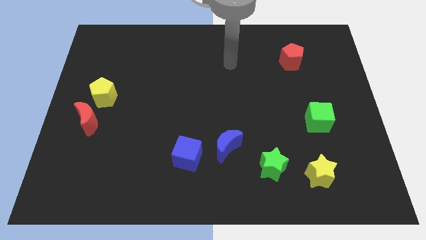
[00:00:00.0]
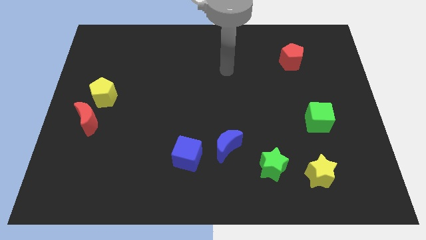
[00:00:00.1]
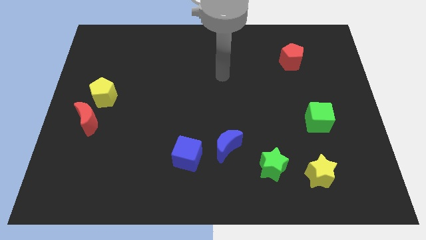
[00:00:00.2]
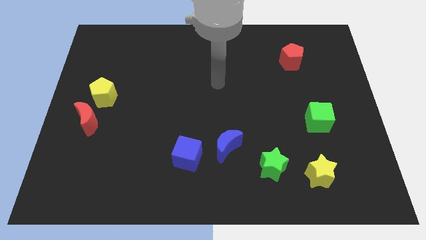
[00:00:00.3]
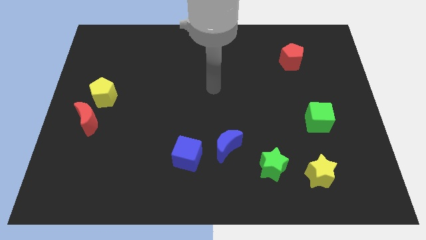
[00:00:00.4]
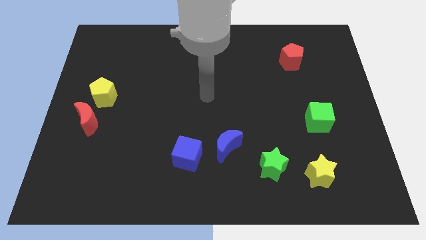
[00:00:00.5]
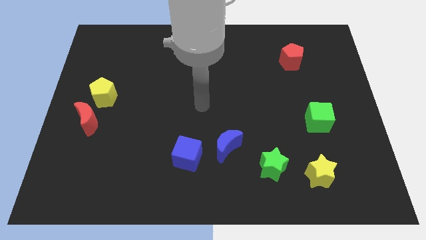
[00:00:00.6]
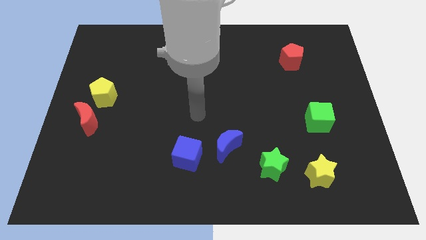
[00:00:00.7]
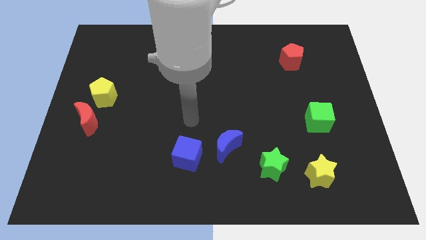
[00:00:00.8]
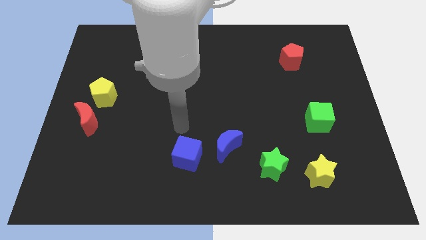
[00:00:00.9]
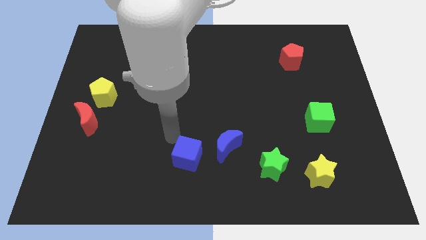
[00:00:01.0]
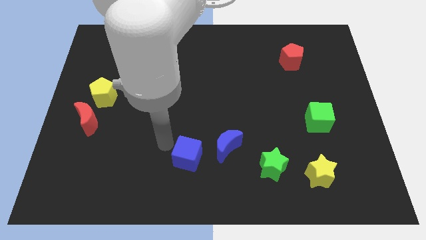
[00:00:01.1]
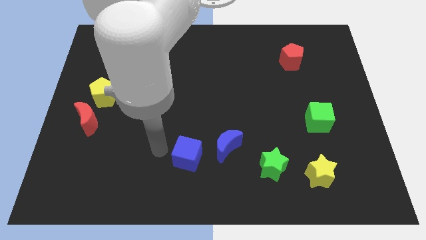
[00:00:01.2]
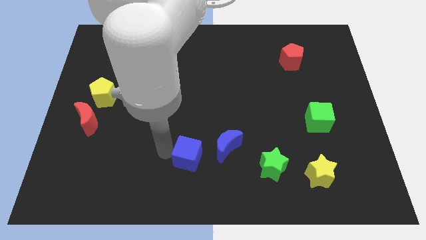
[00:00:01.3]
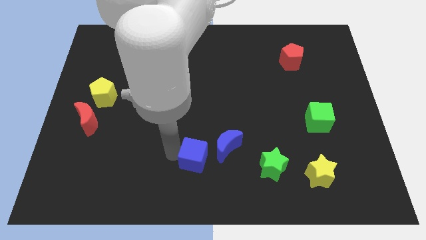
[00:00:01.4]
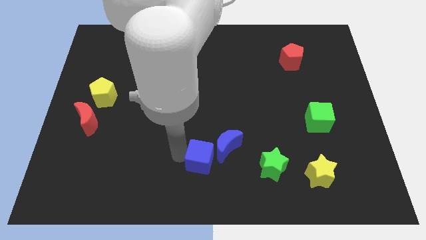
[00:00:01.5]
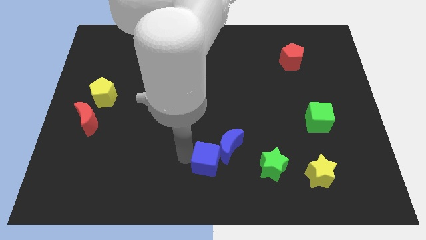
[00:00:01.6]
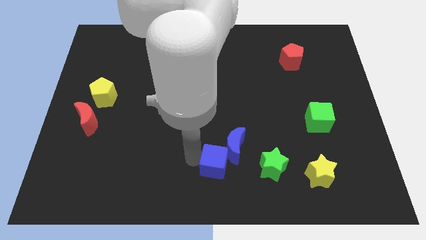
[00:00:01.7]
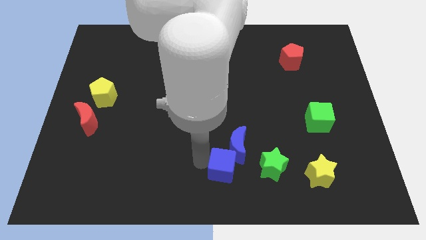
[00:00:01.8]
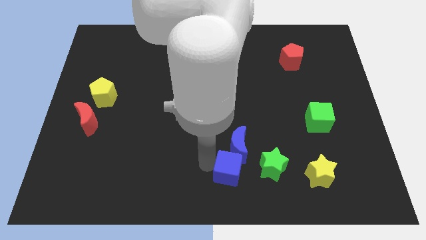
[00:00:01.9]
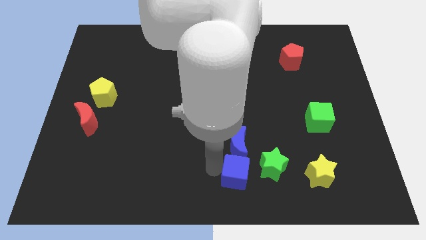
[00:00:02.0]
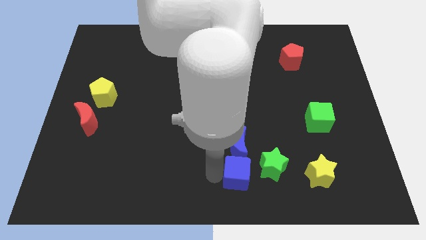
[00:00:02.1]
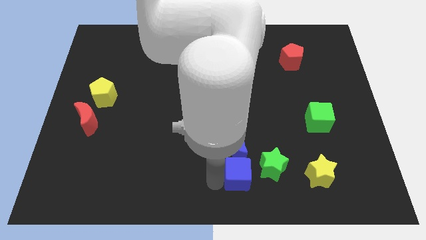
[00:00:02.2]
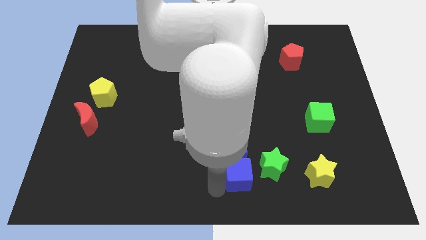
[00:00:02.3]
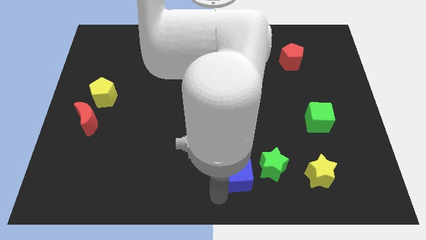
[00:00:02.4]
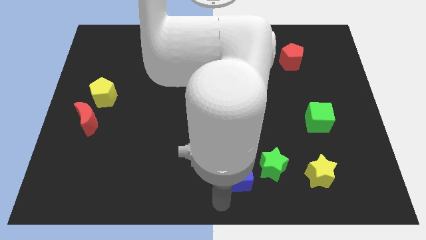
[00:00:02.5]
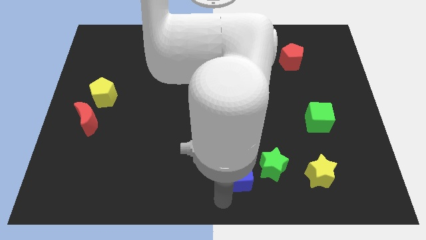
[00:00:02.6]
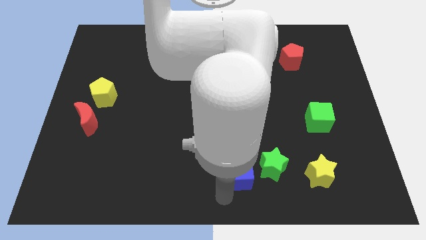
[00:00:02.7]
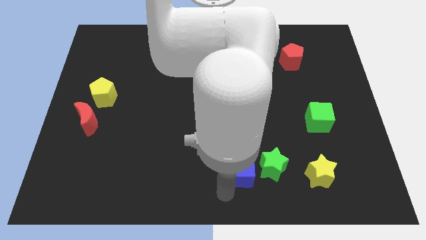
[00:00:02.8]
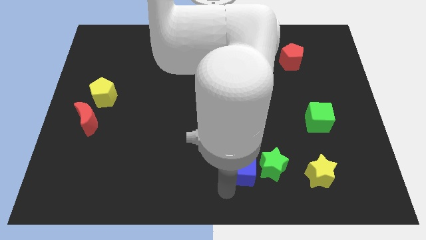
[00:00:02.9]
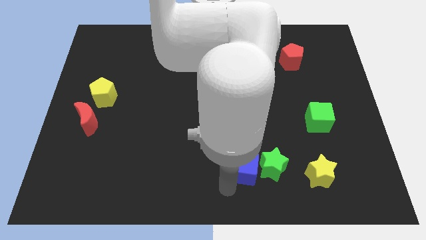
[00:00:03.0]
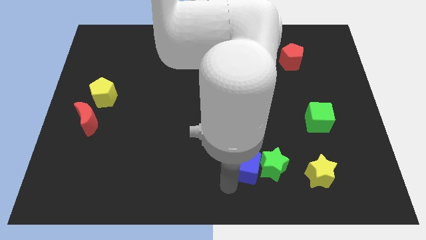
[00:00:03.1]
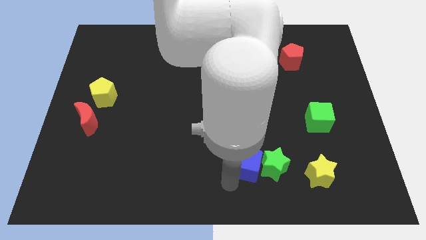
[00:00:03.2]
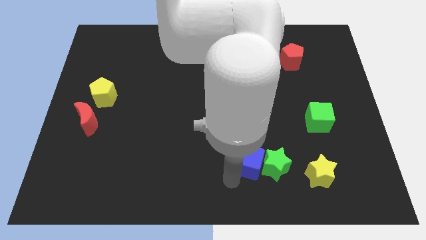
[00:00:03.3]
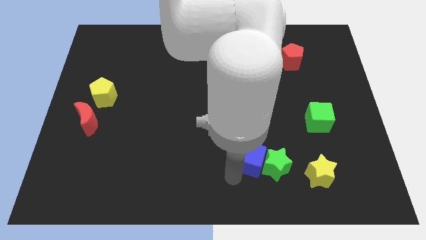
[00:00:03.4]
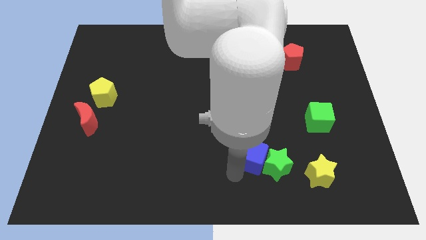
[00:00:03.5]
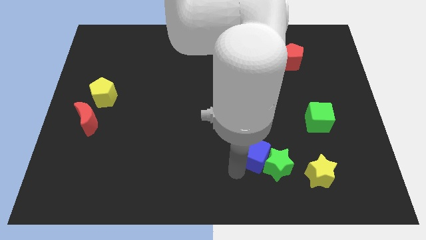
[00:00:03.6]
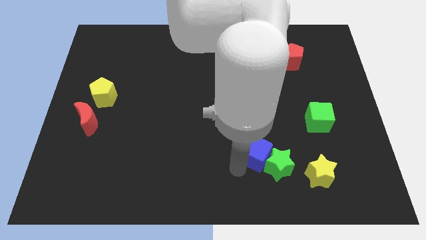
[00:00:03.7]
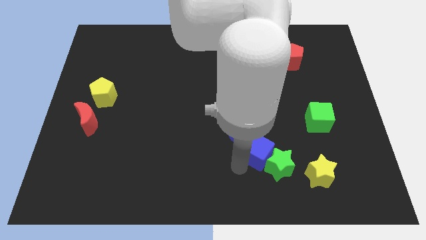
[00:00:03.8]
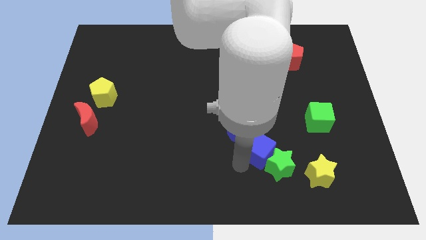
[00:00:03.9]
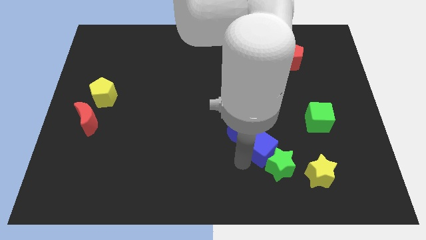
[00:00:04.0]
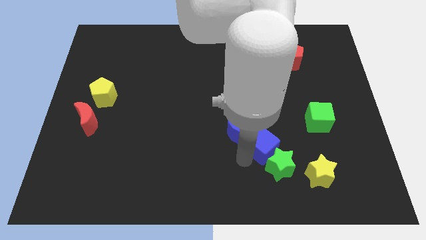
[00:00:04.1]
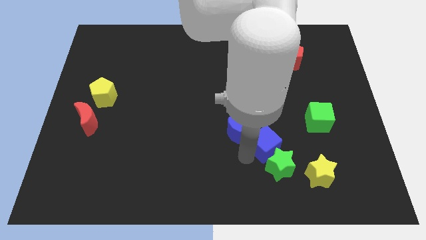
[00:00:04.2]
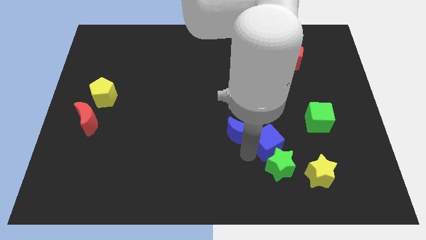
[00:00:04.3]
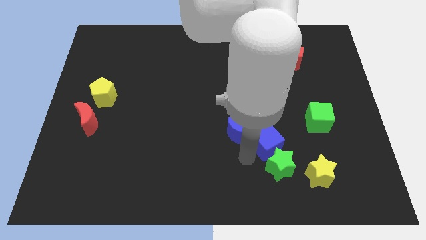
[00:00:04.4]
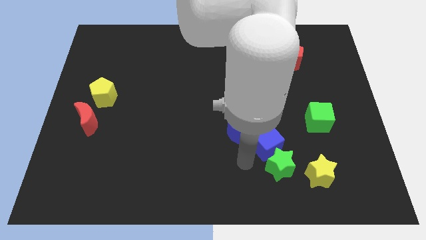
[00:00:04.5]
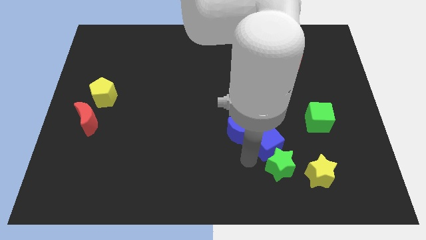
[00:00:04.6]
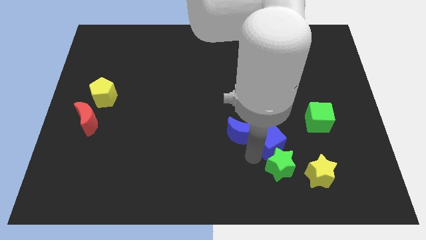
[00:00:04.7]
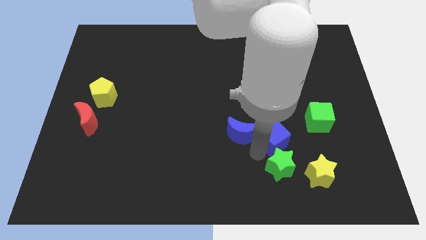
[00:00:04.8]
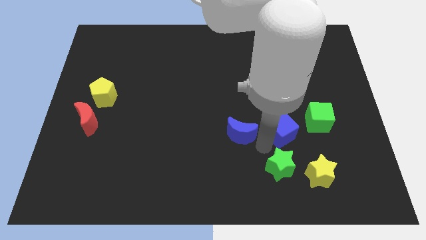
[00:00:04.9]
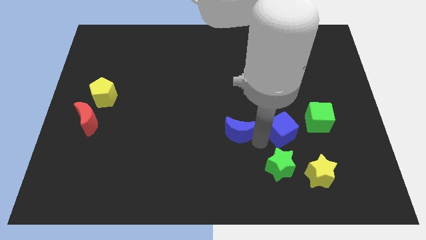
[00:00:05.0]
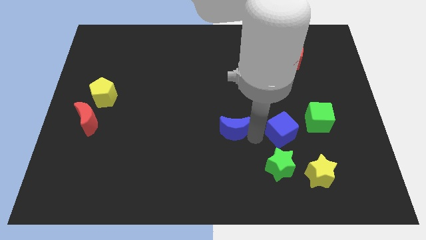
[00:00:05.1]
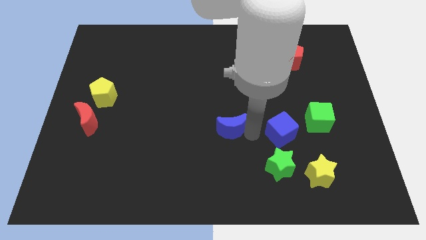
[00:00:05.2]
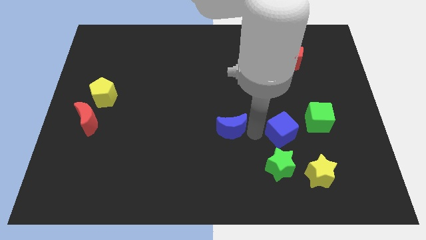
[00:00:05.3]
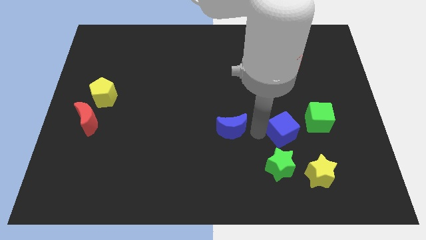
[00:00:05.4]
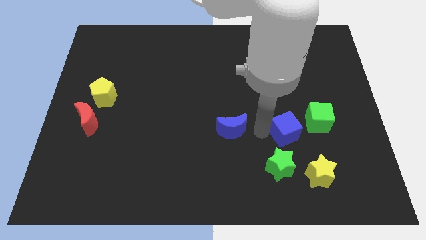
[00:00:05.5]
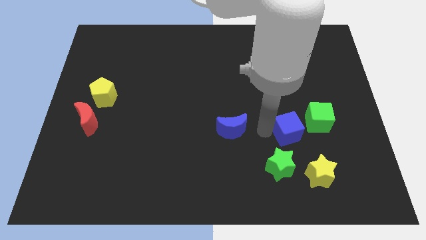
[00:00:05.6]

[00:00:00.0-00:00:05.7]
put the blue cube to the top side of the yellow star

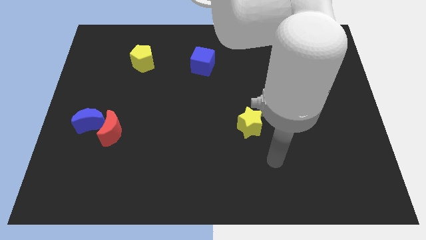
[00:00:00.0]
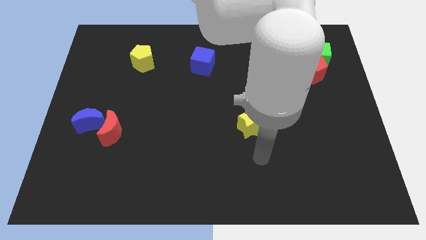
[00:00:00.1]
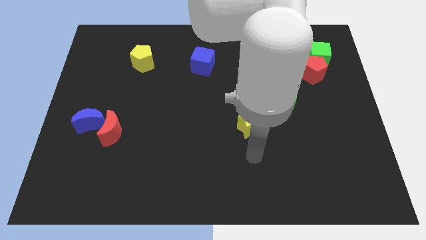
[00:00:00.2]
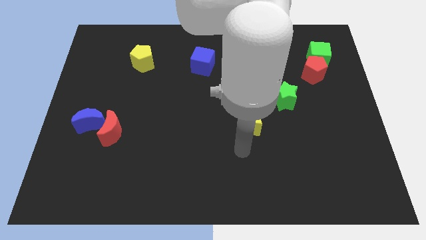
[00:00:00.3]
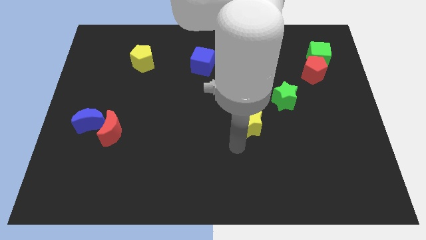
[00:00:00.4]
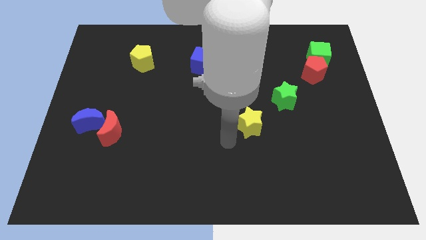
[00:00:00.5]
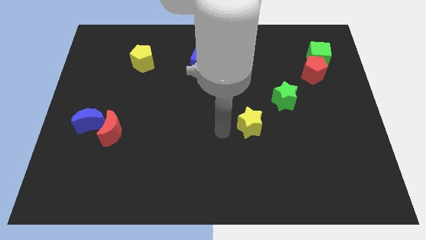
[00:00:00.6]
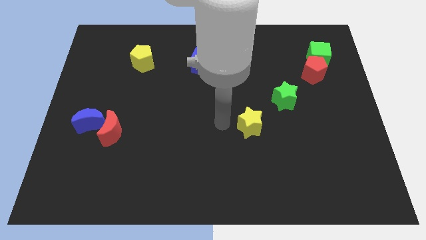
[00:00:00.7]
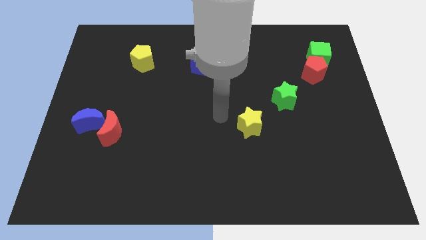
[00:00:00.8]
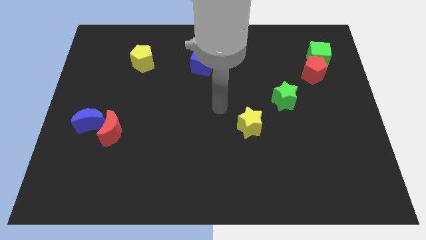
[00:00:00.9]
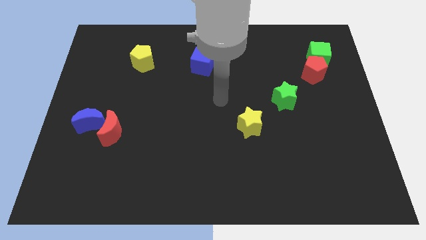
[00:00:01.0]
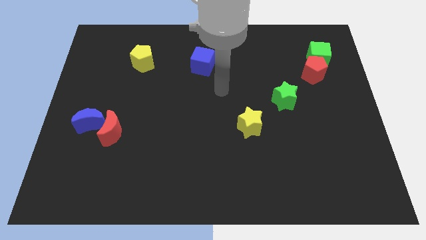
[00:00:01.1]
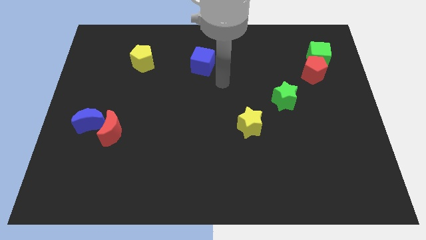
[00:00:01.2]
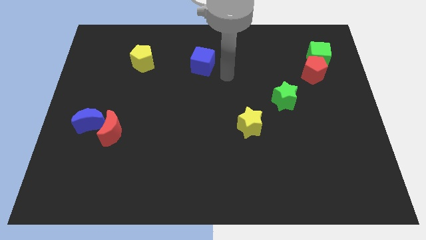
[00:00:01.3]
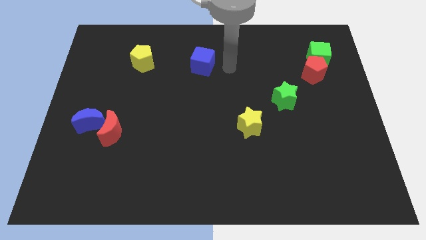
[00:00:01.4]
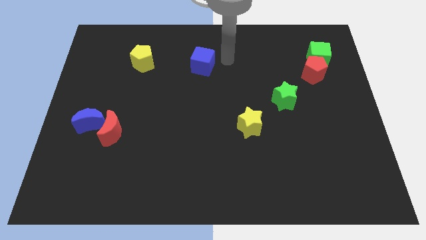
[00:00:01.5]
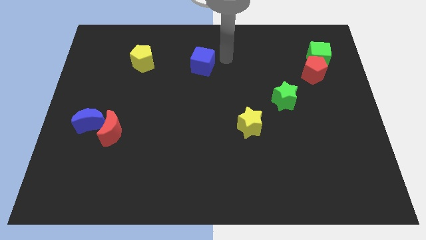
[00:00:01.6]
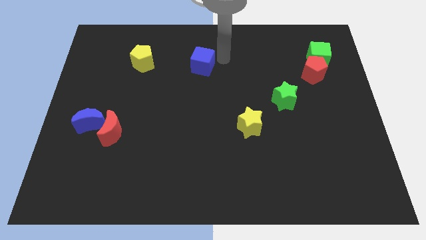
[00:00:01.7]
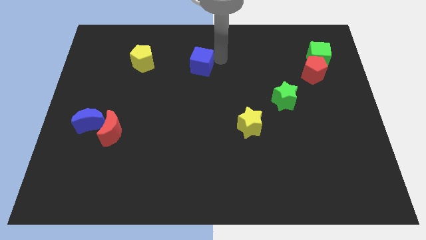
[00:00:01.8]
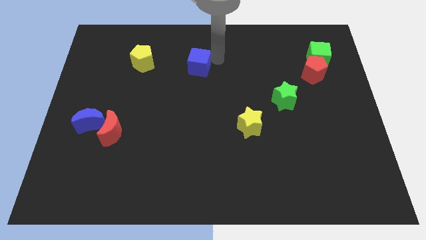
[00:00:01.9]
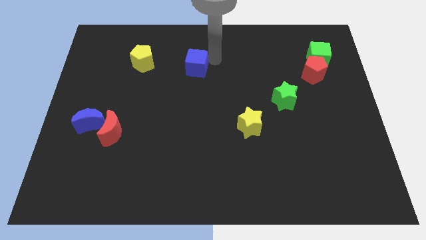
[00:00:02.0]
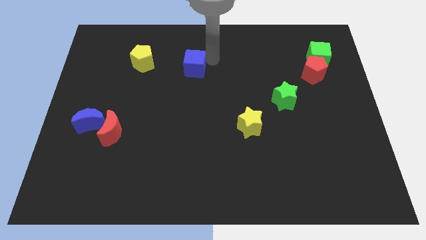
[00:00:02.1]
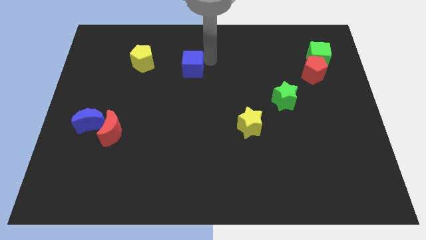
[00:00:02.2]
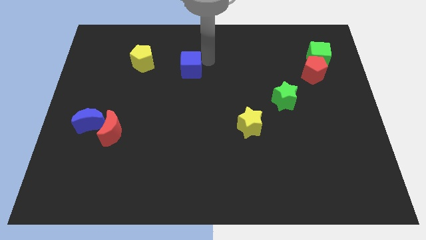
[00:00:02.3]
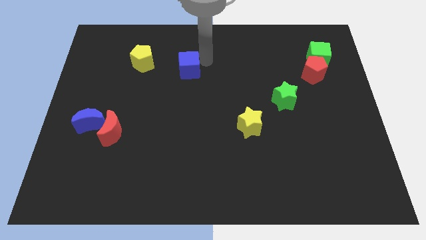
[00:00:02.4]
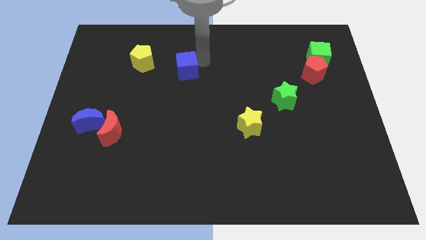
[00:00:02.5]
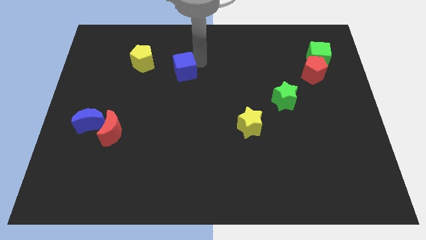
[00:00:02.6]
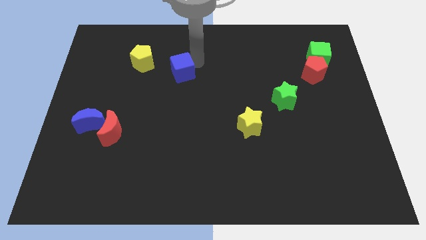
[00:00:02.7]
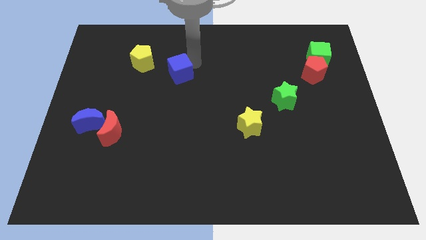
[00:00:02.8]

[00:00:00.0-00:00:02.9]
push the blue cube diagonally down and to the right of the yellow pentagon
